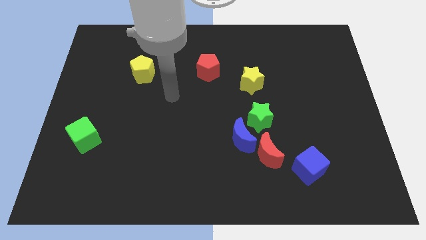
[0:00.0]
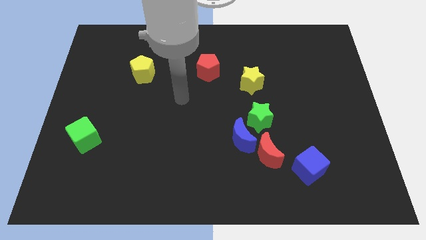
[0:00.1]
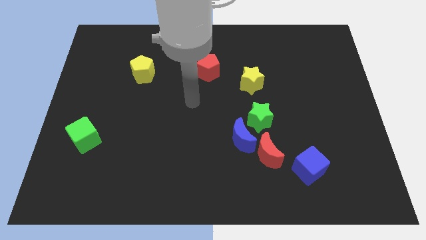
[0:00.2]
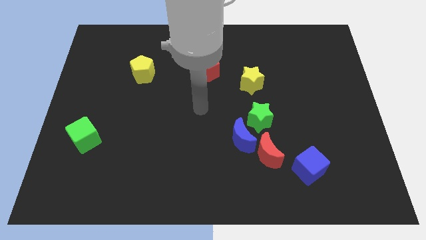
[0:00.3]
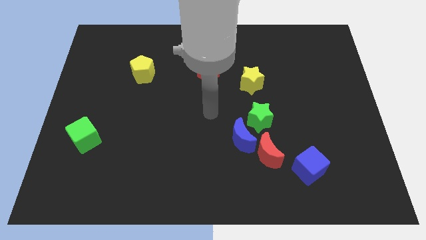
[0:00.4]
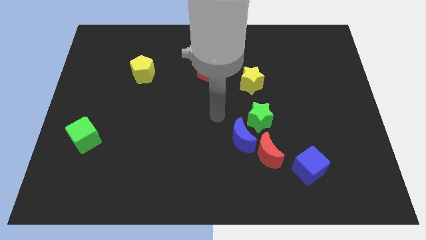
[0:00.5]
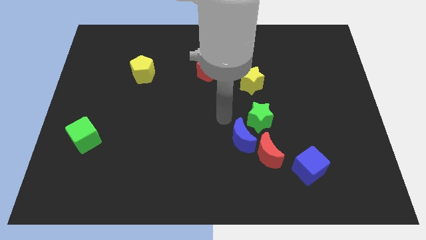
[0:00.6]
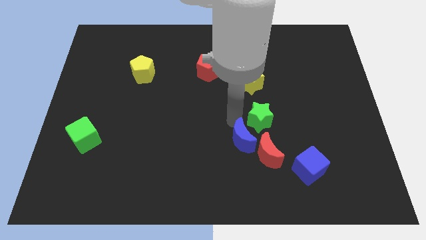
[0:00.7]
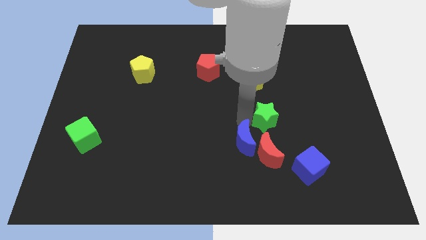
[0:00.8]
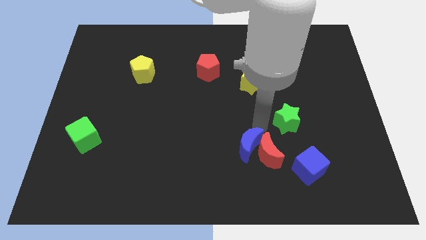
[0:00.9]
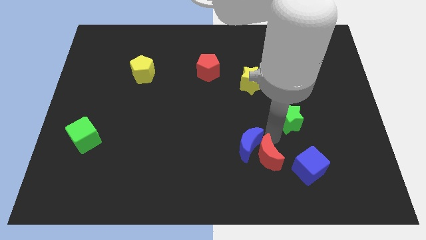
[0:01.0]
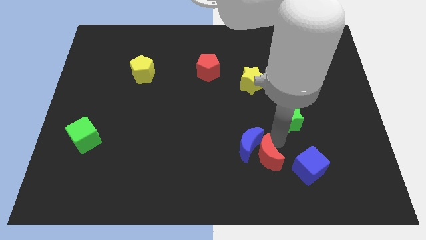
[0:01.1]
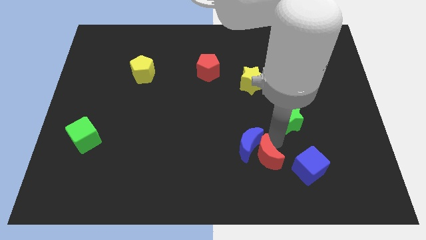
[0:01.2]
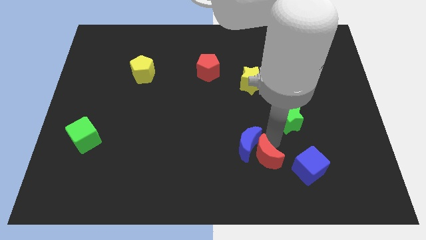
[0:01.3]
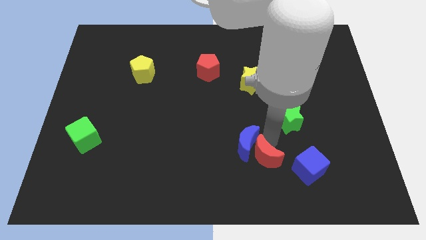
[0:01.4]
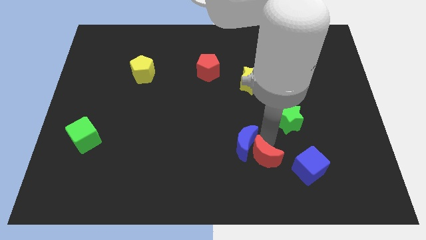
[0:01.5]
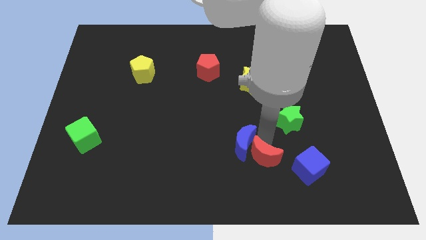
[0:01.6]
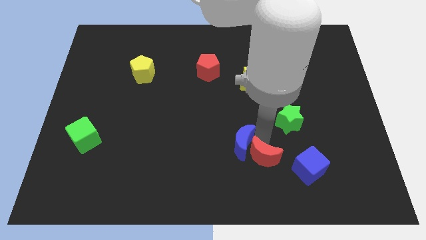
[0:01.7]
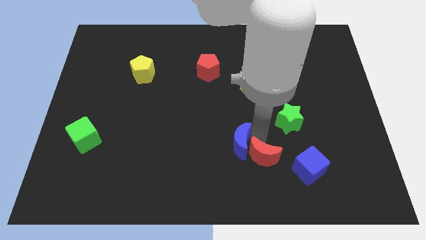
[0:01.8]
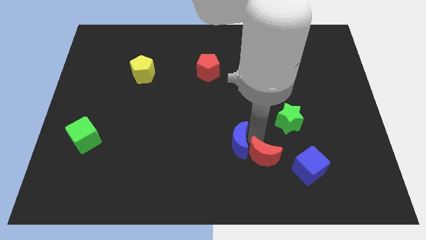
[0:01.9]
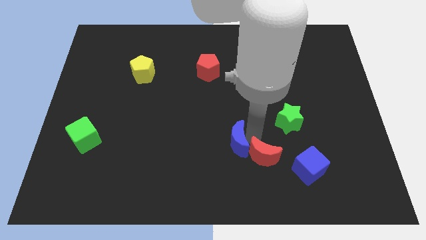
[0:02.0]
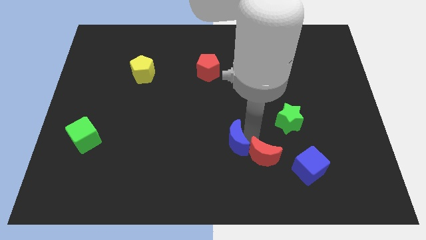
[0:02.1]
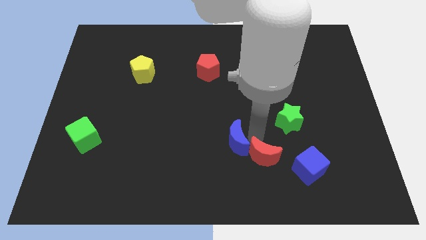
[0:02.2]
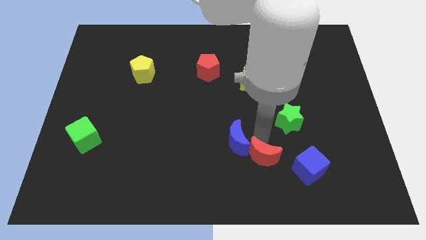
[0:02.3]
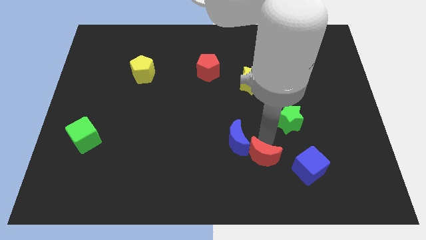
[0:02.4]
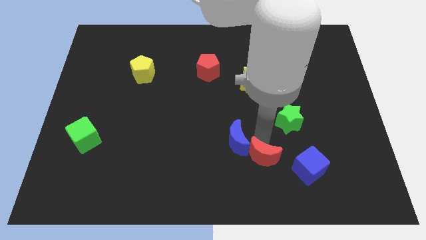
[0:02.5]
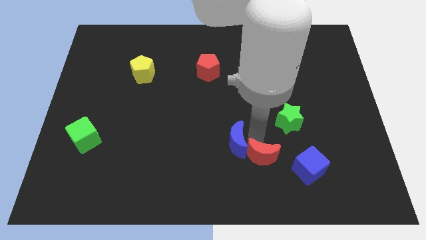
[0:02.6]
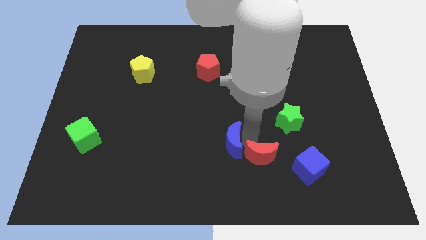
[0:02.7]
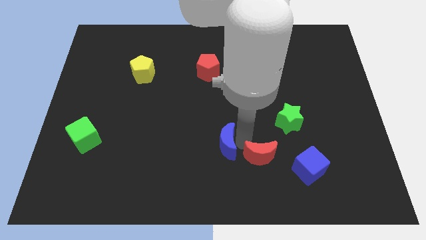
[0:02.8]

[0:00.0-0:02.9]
separate the blue moon from the red moon and green star

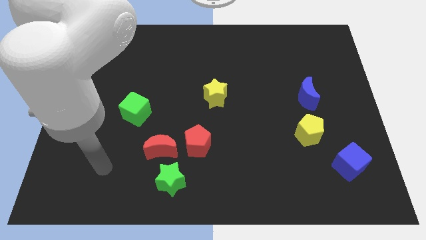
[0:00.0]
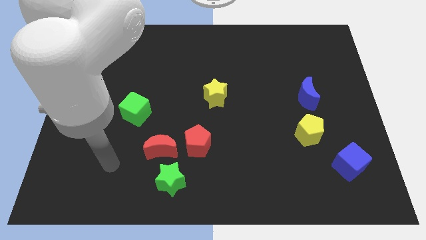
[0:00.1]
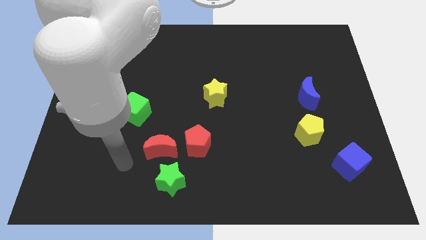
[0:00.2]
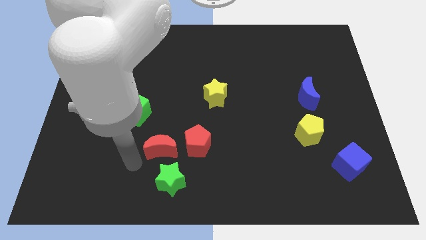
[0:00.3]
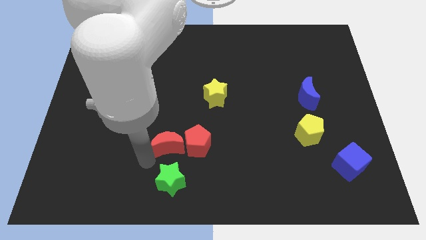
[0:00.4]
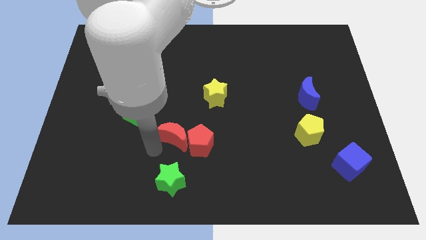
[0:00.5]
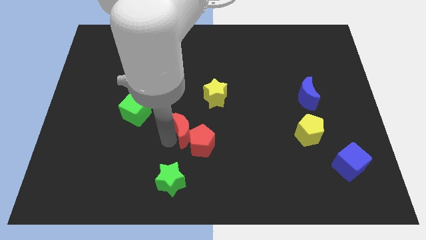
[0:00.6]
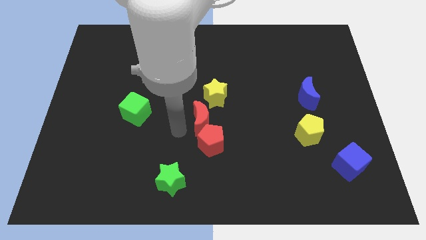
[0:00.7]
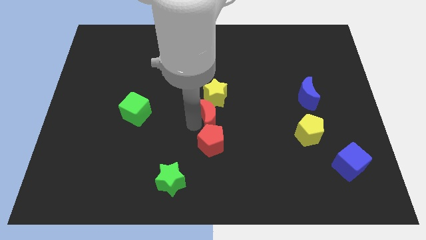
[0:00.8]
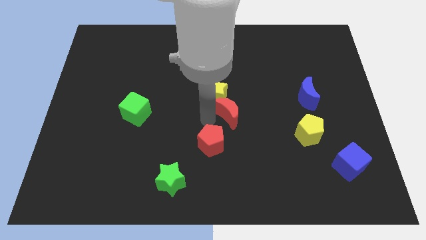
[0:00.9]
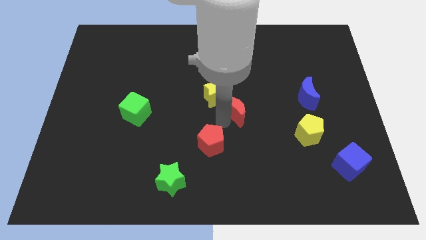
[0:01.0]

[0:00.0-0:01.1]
separate the red pentagon from the red moon

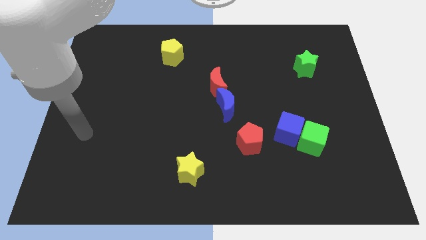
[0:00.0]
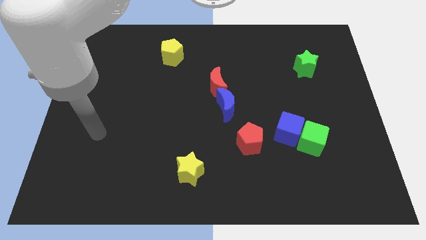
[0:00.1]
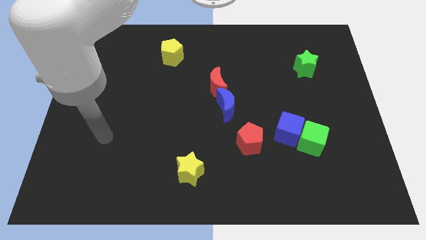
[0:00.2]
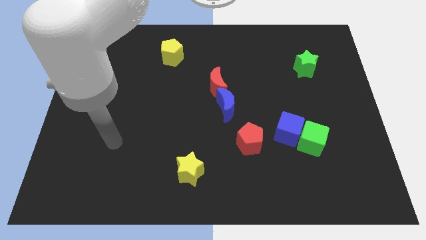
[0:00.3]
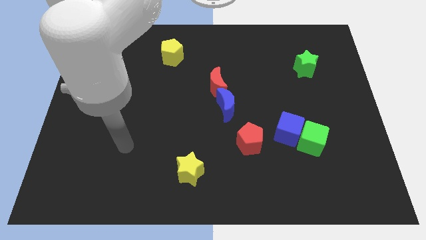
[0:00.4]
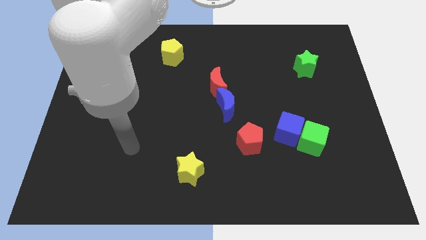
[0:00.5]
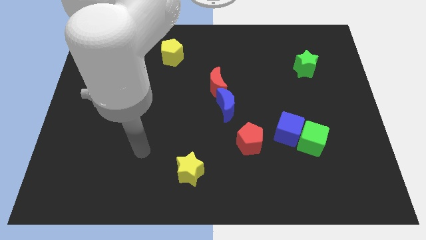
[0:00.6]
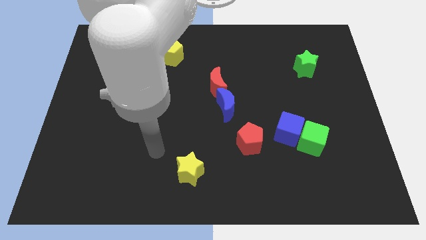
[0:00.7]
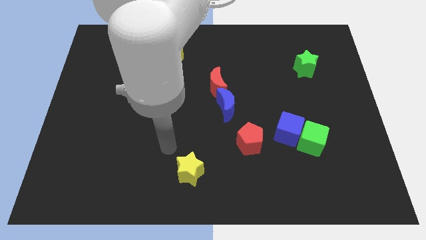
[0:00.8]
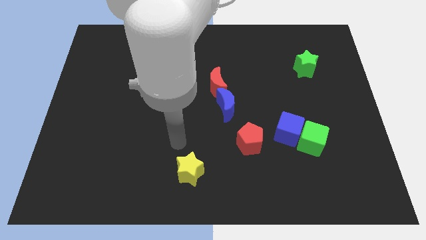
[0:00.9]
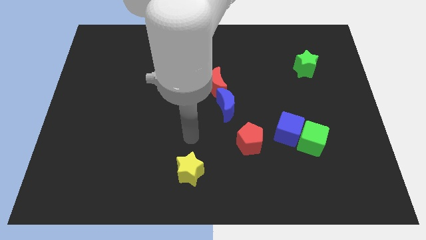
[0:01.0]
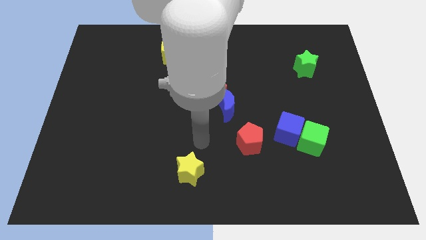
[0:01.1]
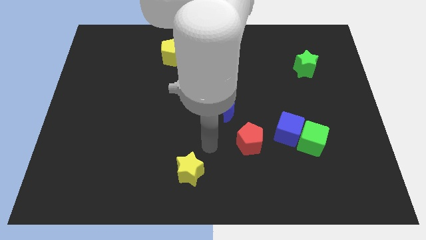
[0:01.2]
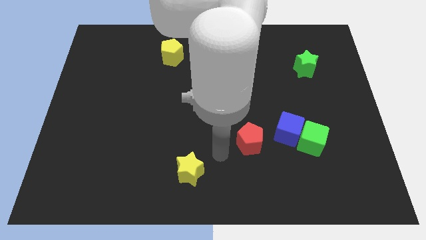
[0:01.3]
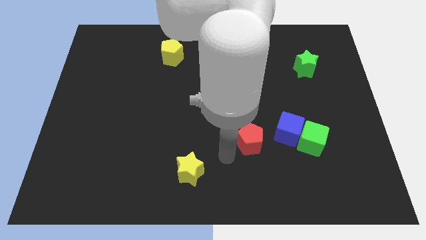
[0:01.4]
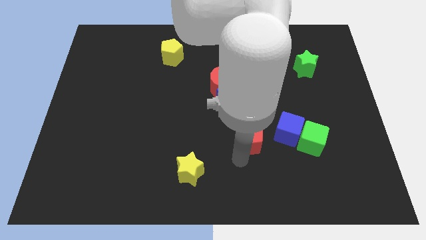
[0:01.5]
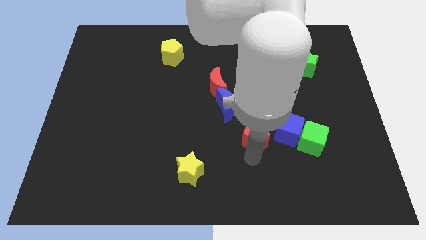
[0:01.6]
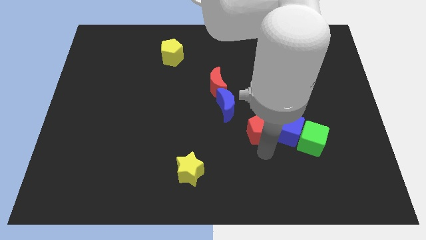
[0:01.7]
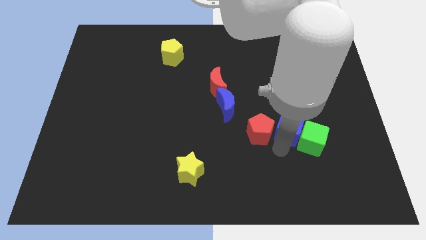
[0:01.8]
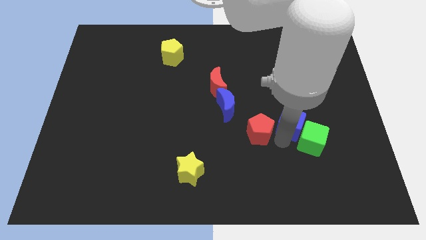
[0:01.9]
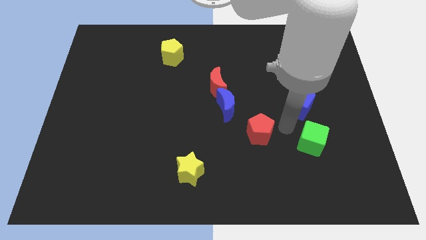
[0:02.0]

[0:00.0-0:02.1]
separate the green cube from the blue cube

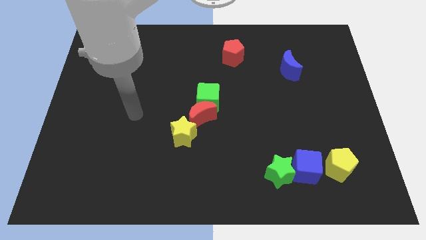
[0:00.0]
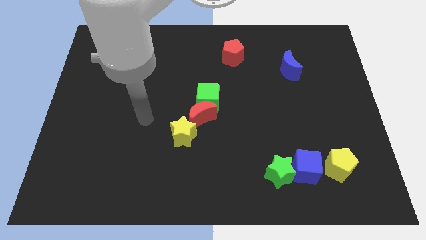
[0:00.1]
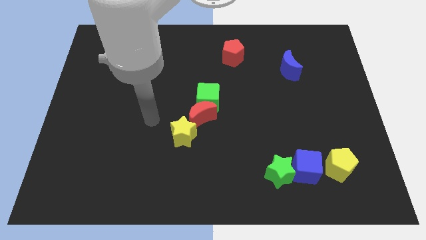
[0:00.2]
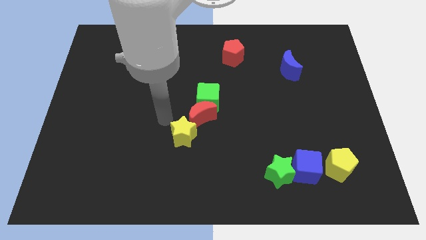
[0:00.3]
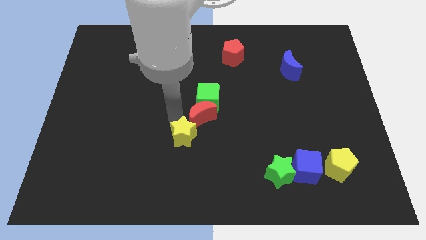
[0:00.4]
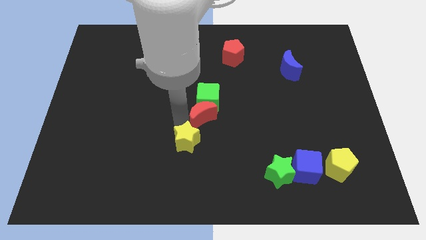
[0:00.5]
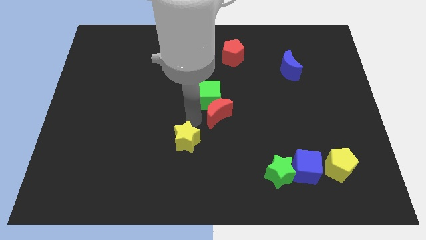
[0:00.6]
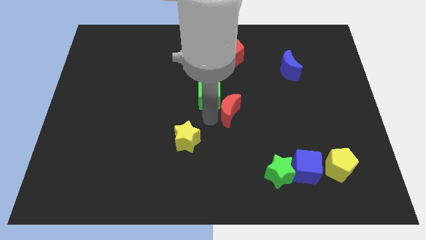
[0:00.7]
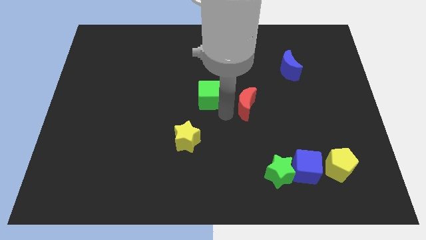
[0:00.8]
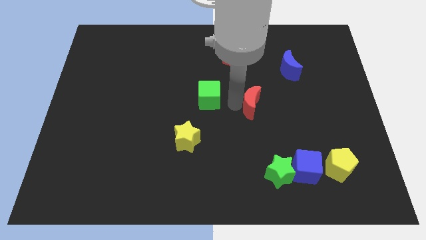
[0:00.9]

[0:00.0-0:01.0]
pull the green cube apart from the red moon

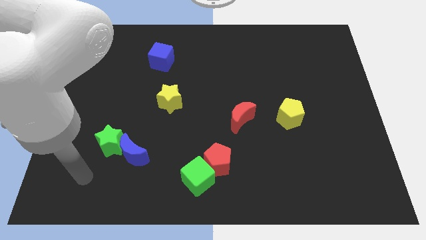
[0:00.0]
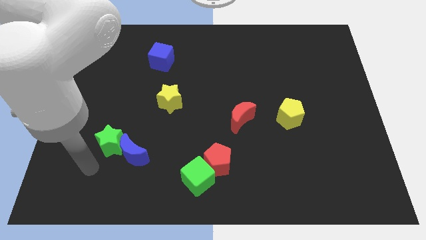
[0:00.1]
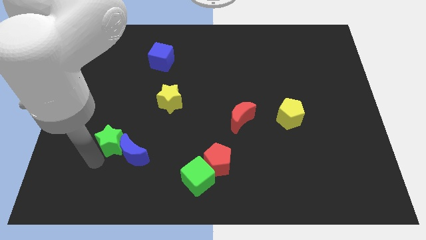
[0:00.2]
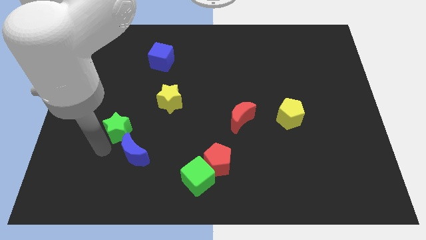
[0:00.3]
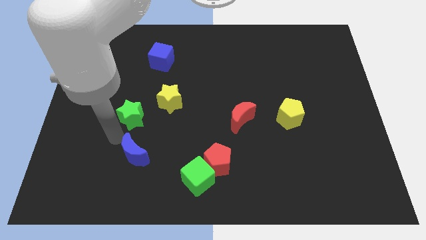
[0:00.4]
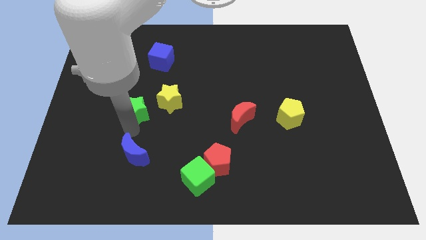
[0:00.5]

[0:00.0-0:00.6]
move the blue moon away from the green star

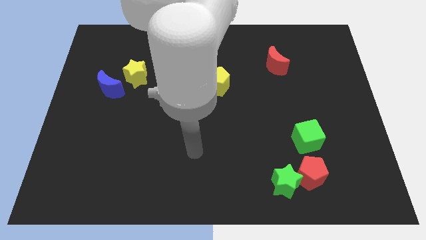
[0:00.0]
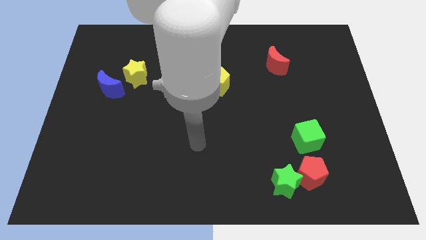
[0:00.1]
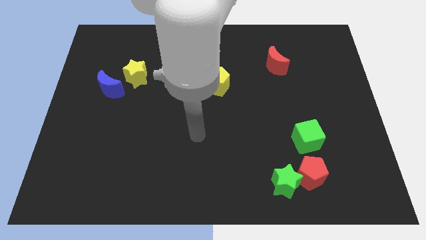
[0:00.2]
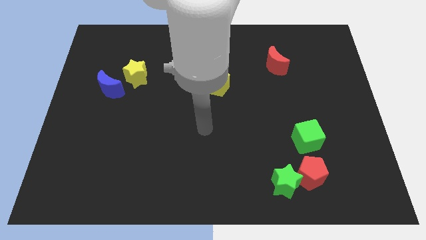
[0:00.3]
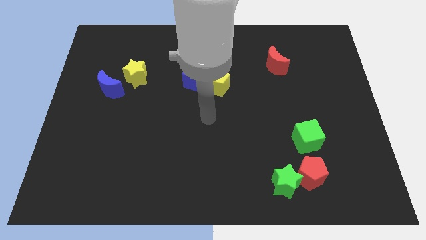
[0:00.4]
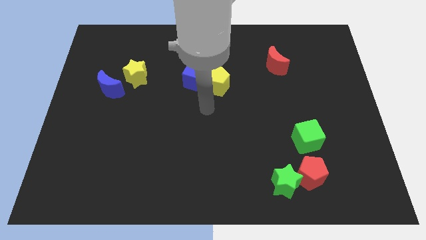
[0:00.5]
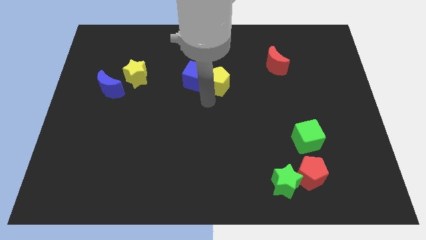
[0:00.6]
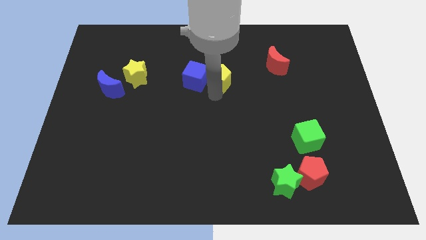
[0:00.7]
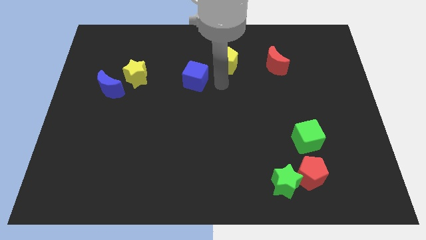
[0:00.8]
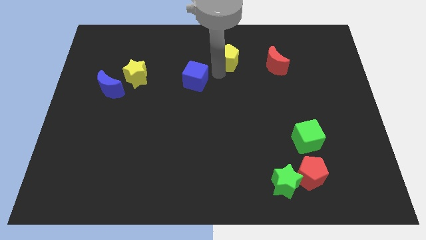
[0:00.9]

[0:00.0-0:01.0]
pull the blue cube apart from the yellow pentagon

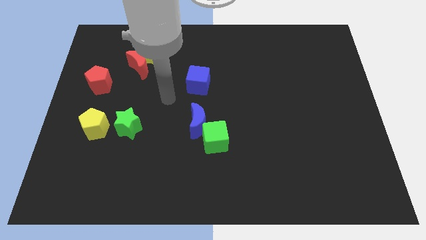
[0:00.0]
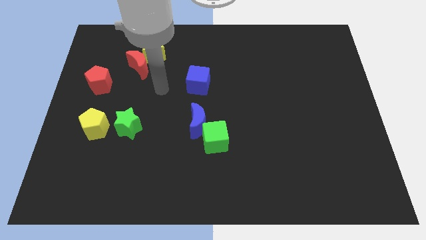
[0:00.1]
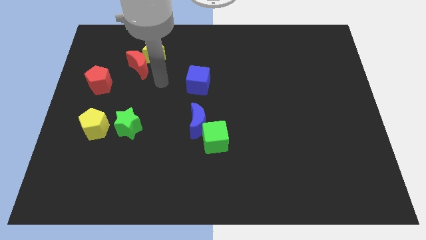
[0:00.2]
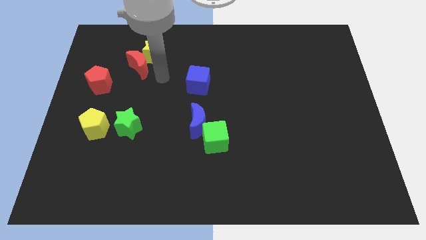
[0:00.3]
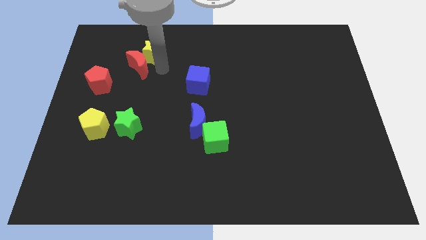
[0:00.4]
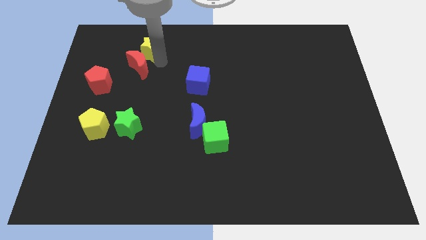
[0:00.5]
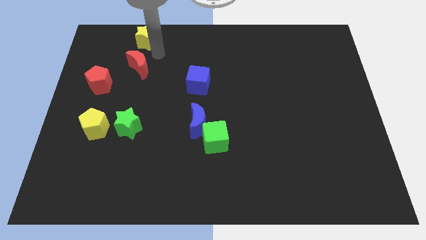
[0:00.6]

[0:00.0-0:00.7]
move the red moon away from the yellow star
